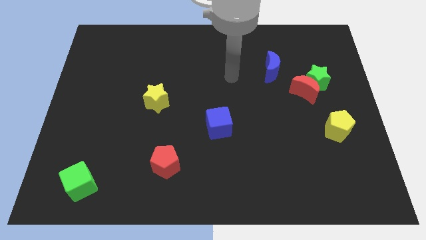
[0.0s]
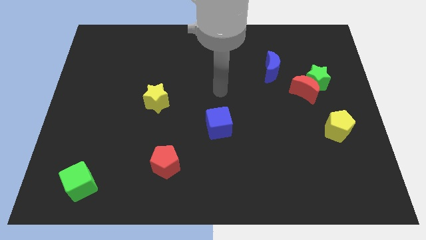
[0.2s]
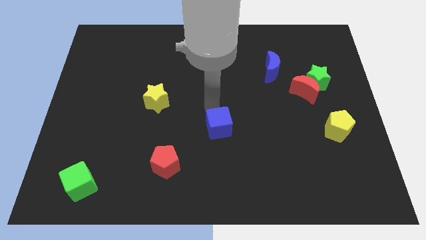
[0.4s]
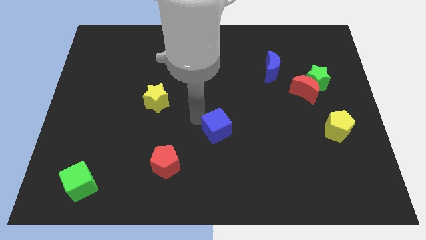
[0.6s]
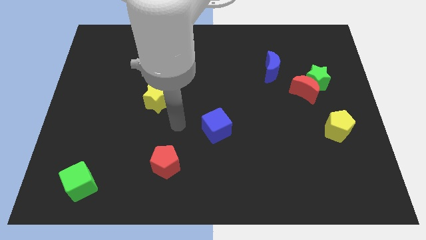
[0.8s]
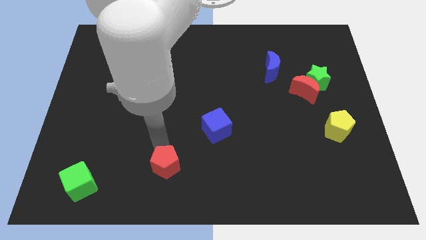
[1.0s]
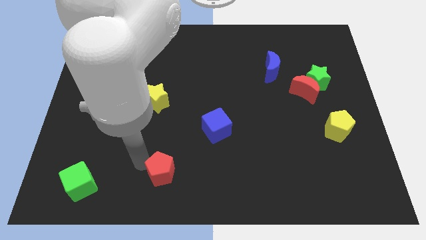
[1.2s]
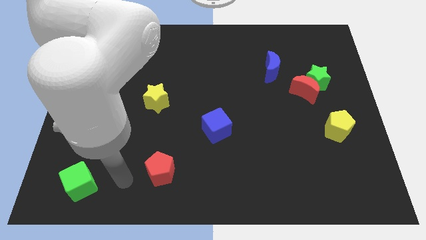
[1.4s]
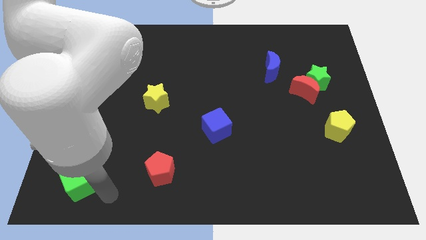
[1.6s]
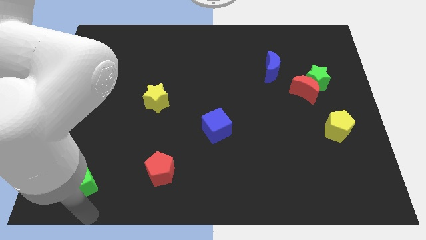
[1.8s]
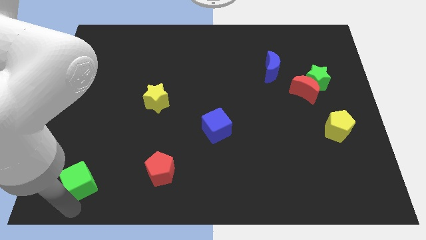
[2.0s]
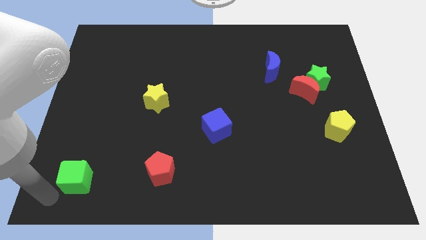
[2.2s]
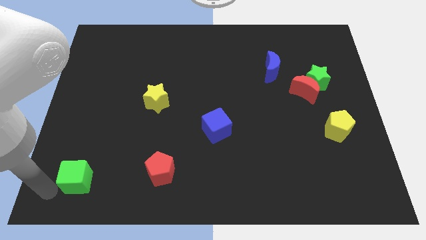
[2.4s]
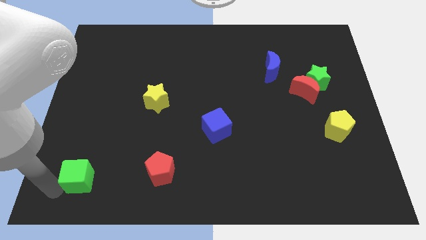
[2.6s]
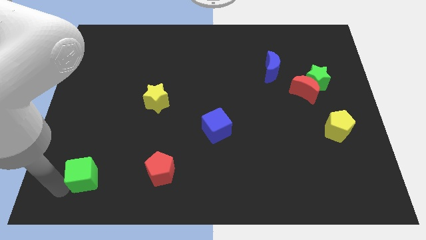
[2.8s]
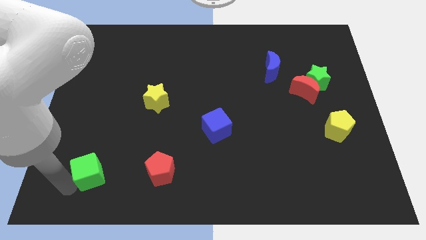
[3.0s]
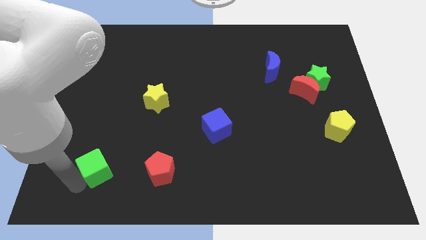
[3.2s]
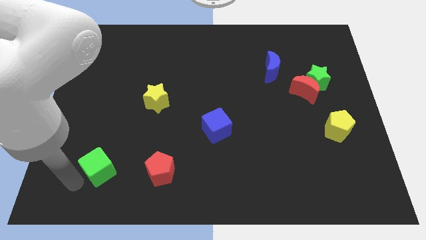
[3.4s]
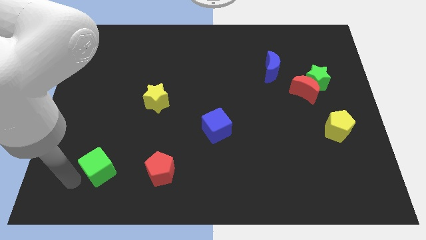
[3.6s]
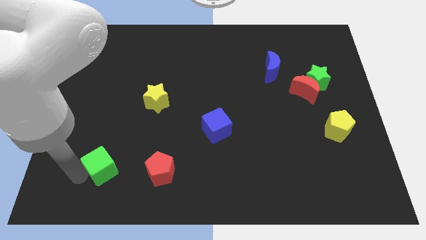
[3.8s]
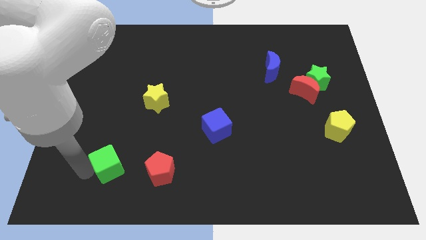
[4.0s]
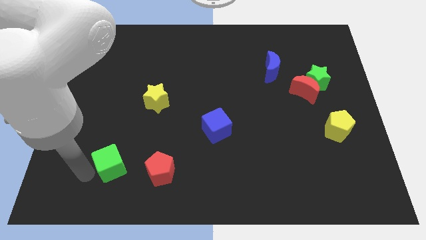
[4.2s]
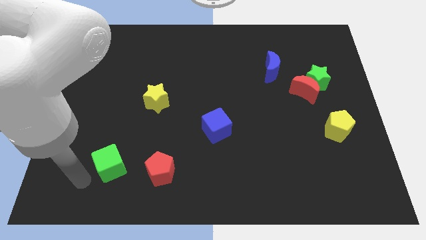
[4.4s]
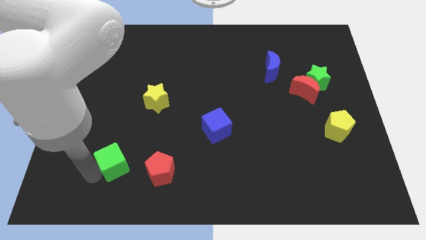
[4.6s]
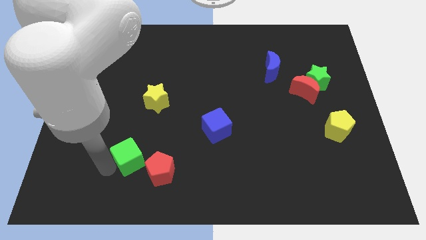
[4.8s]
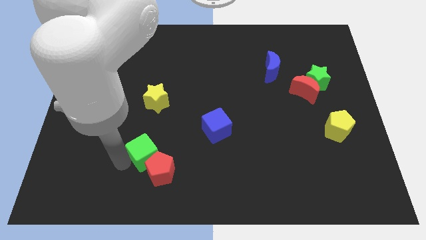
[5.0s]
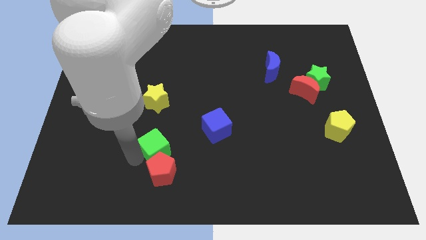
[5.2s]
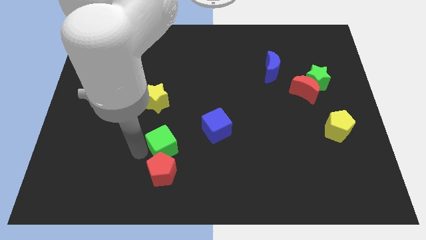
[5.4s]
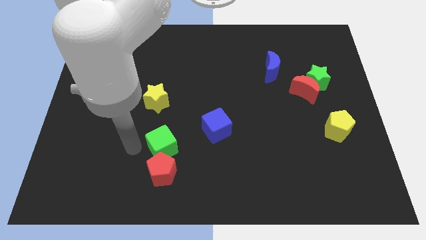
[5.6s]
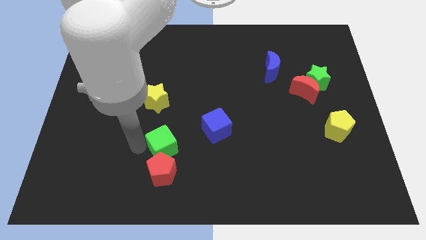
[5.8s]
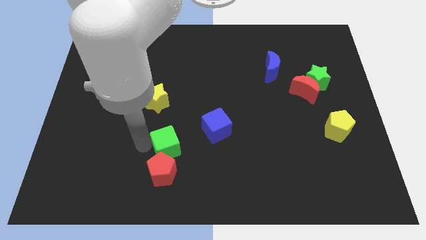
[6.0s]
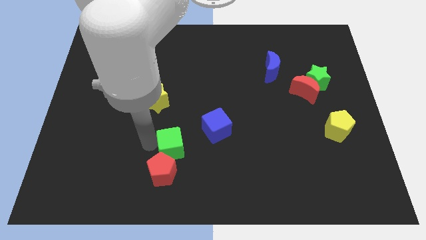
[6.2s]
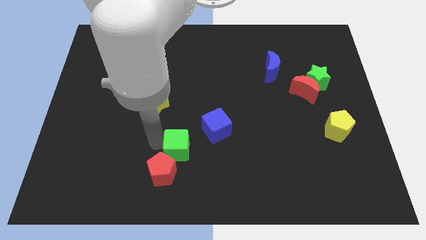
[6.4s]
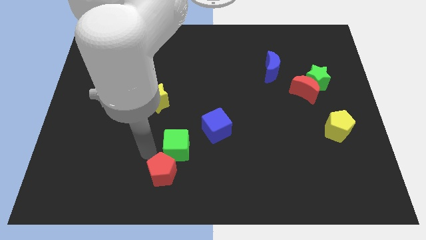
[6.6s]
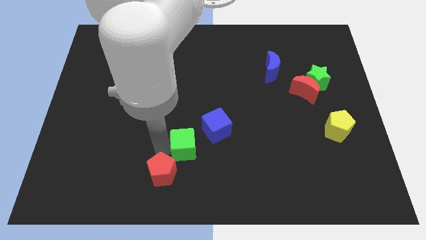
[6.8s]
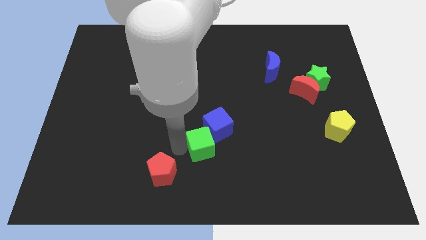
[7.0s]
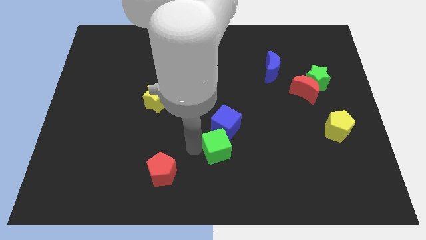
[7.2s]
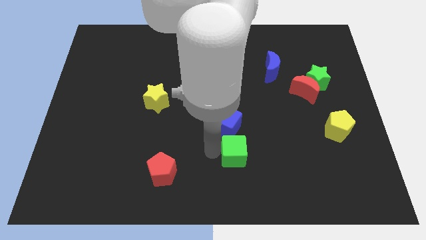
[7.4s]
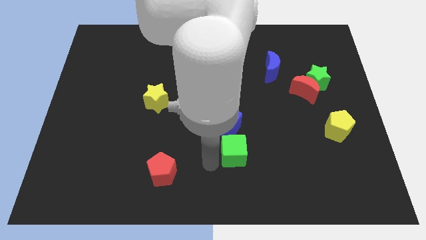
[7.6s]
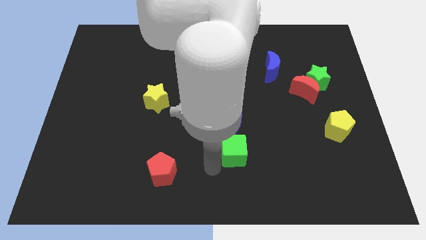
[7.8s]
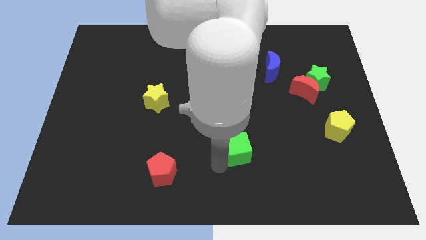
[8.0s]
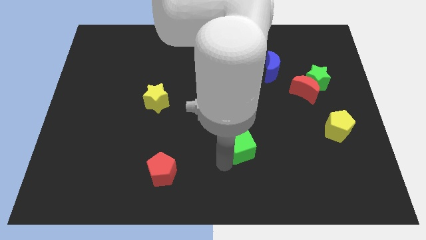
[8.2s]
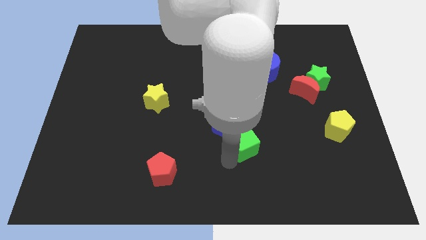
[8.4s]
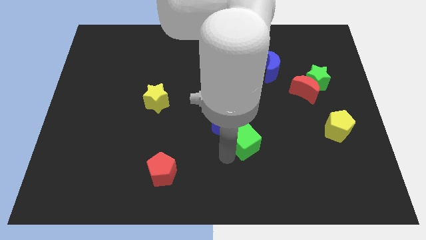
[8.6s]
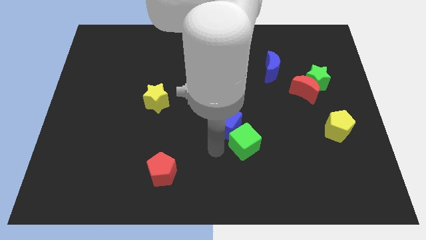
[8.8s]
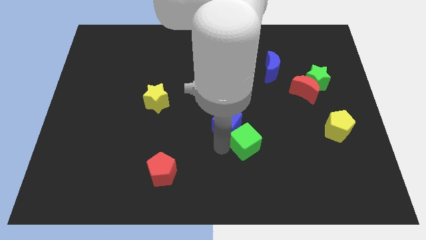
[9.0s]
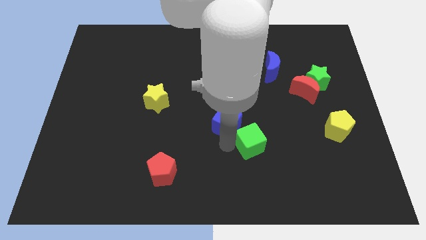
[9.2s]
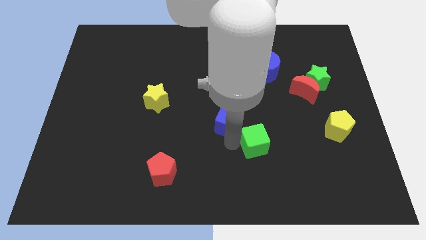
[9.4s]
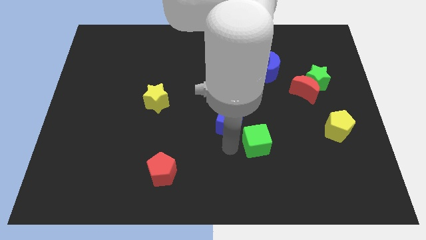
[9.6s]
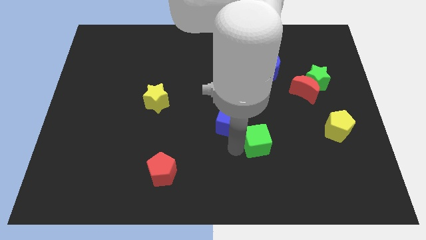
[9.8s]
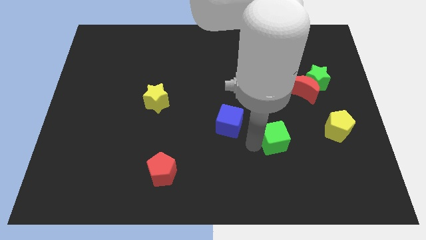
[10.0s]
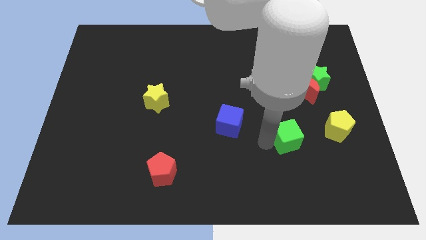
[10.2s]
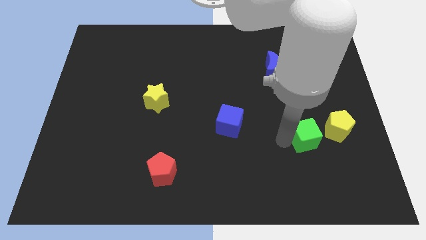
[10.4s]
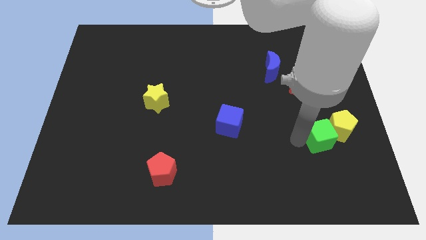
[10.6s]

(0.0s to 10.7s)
slide the green cube next to the yellow pentagon

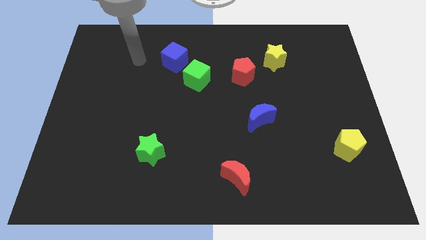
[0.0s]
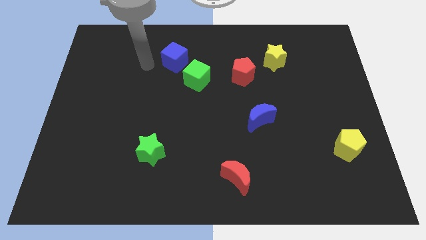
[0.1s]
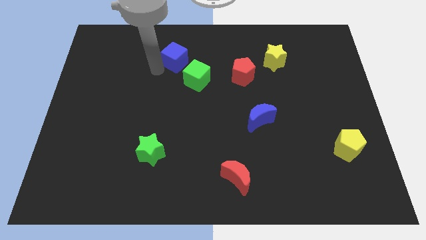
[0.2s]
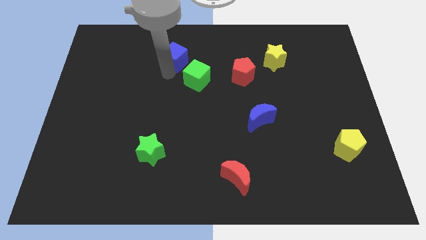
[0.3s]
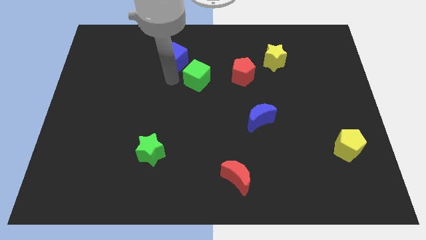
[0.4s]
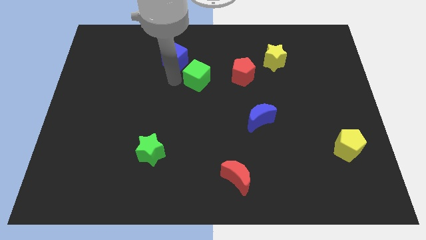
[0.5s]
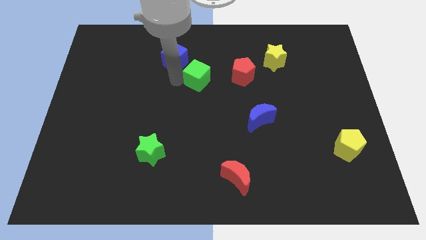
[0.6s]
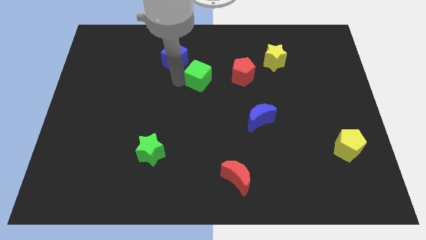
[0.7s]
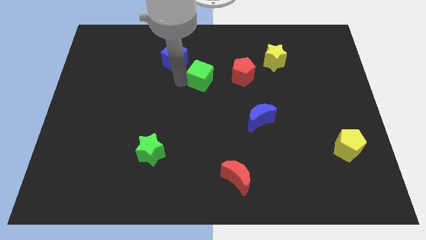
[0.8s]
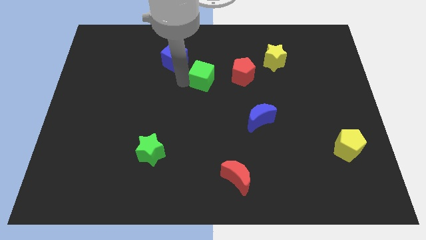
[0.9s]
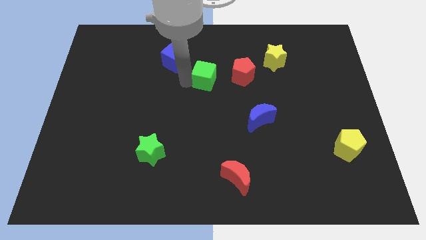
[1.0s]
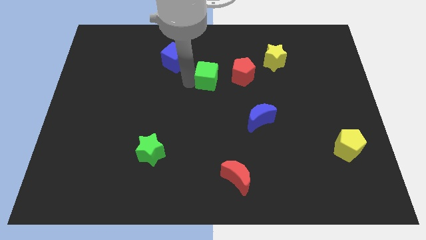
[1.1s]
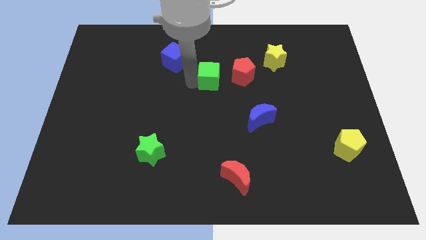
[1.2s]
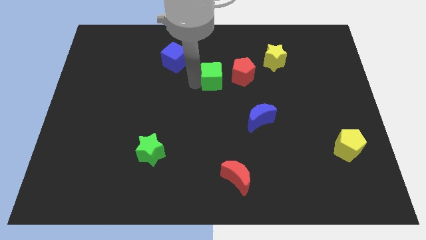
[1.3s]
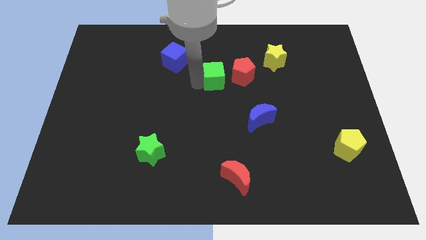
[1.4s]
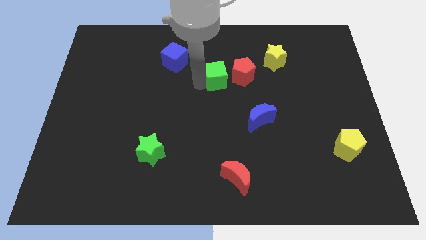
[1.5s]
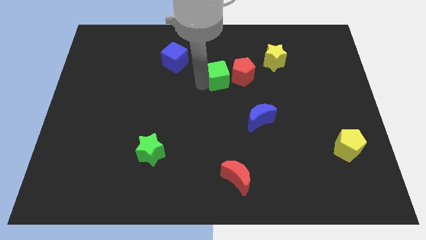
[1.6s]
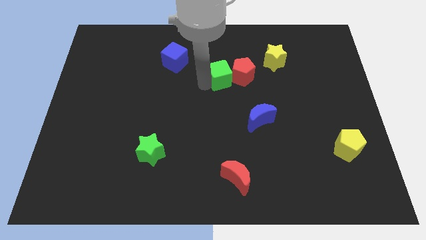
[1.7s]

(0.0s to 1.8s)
move the green cube to the red pentagon

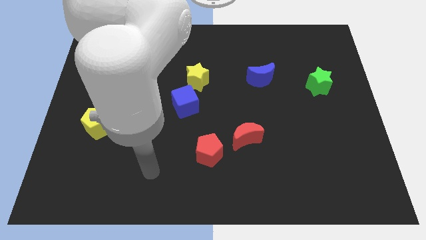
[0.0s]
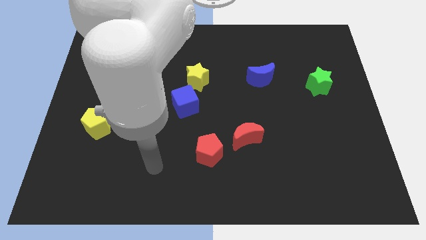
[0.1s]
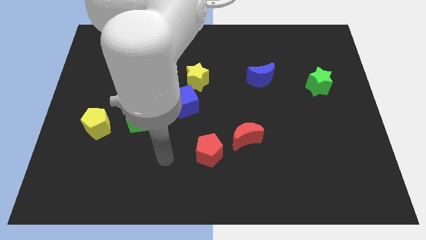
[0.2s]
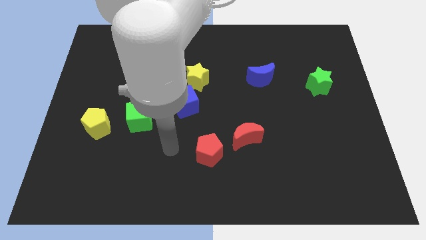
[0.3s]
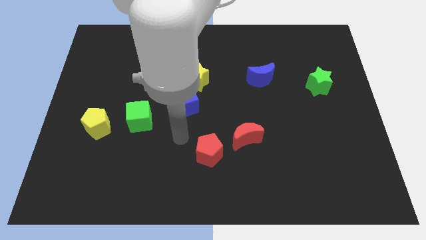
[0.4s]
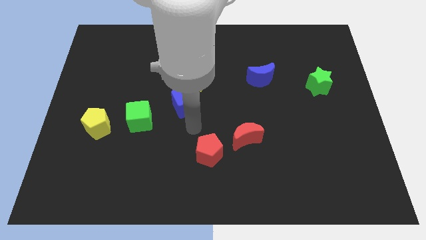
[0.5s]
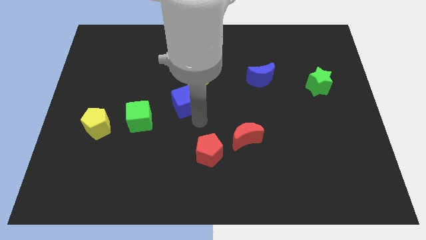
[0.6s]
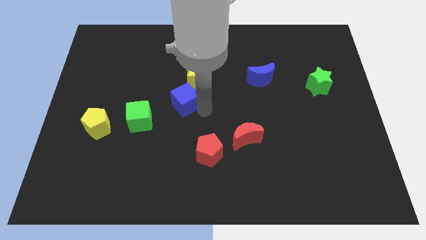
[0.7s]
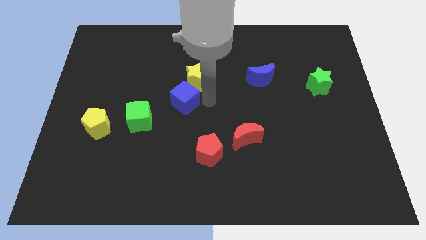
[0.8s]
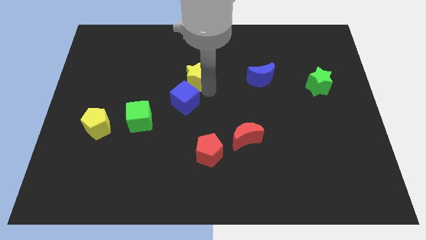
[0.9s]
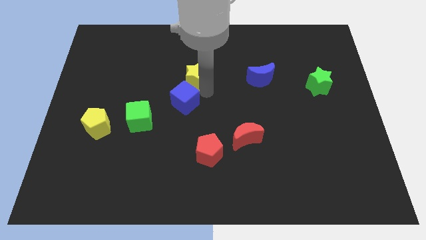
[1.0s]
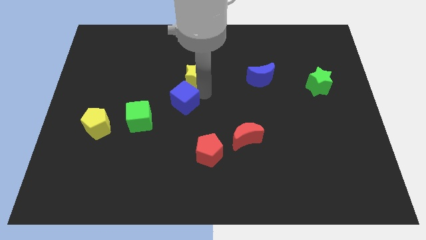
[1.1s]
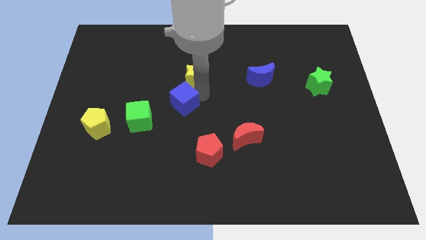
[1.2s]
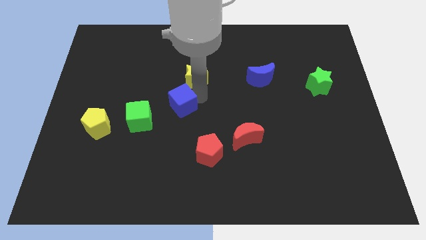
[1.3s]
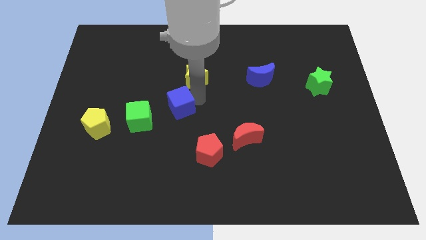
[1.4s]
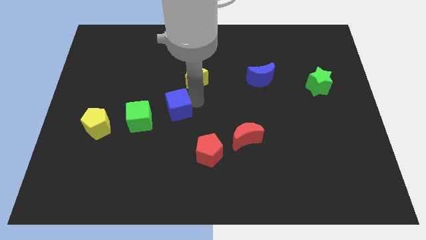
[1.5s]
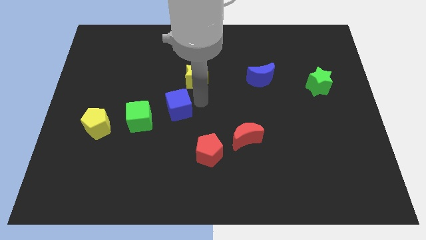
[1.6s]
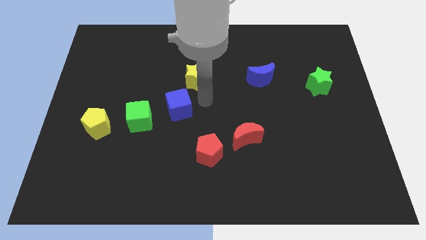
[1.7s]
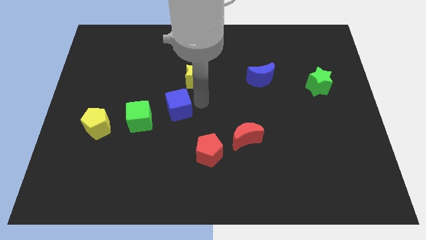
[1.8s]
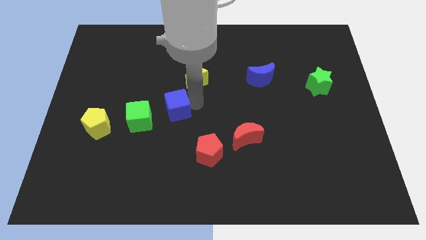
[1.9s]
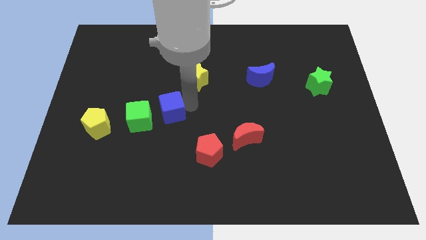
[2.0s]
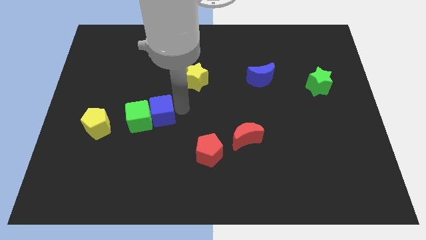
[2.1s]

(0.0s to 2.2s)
push the blue cube to the green cube
